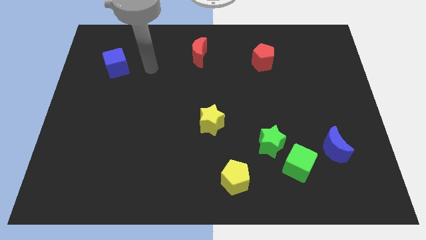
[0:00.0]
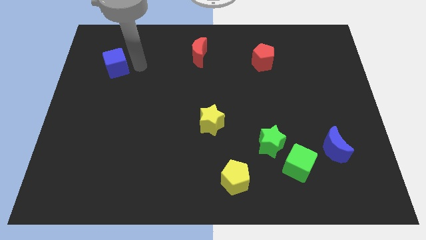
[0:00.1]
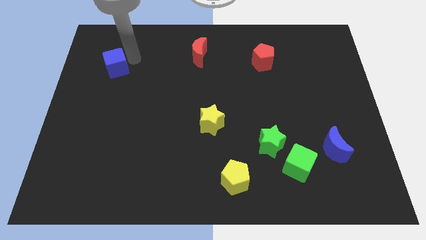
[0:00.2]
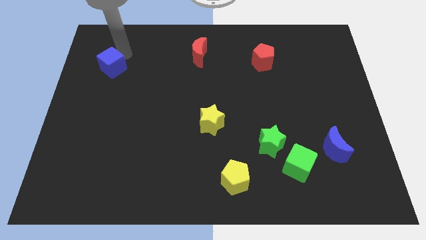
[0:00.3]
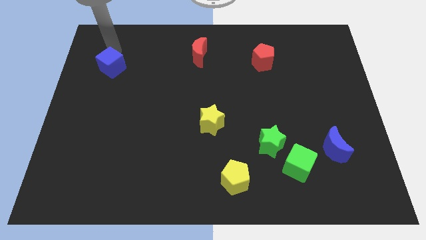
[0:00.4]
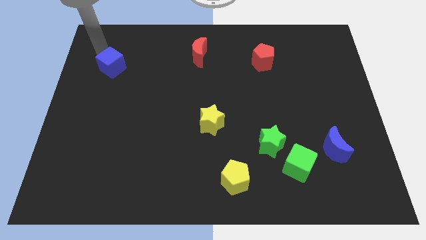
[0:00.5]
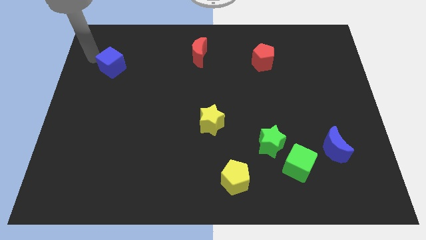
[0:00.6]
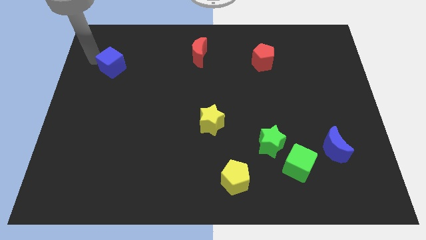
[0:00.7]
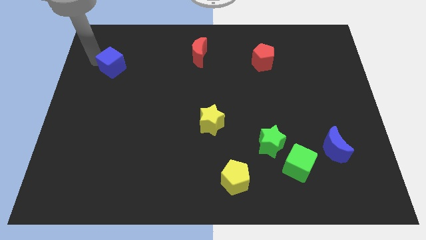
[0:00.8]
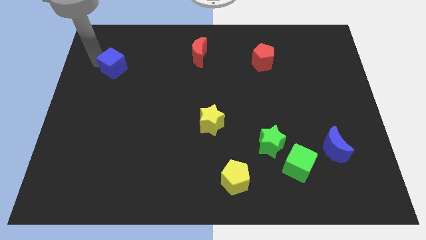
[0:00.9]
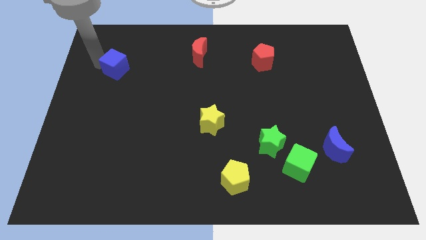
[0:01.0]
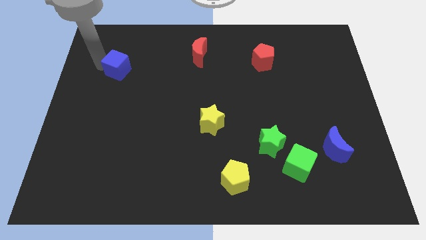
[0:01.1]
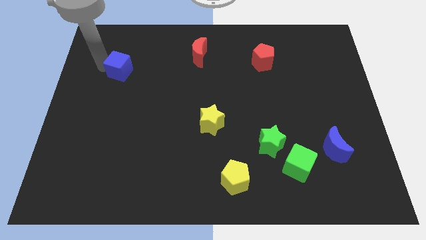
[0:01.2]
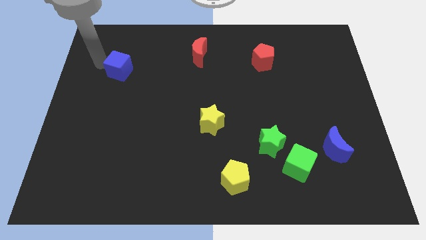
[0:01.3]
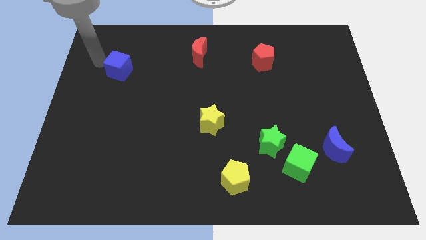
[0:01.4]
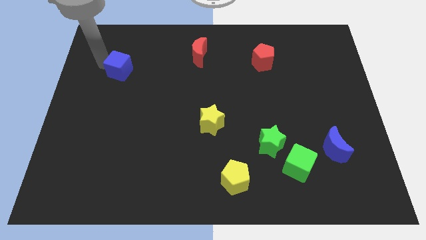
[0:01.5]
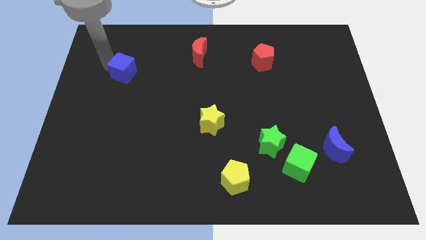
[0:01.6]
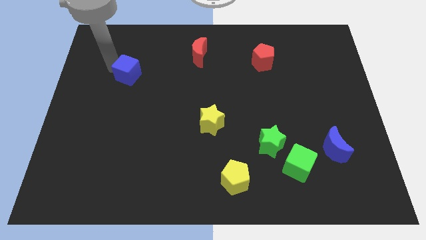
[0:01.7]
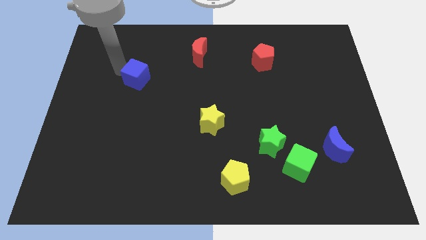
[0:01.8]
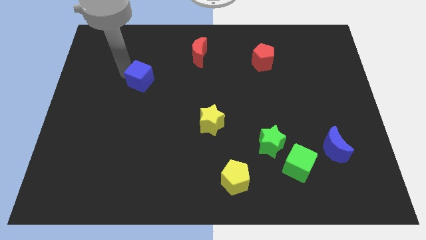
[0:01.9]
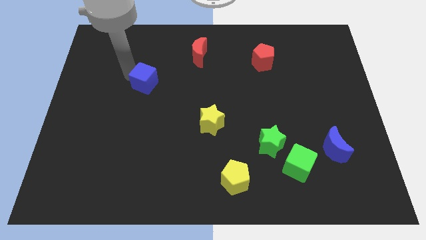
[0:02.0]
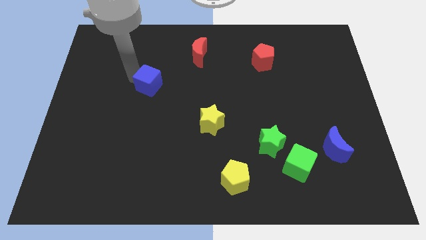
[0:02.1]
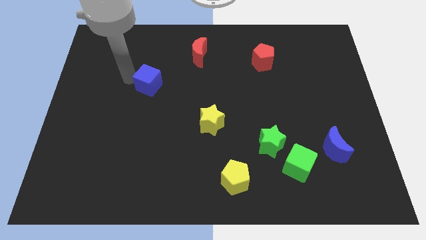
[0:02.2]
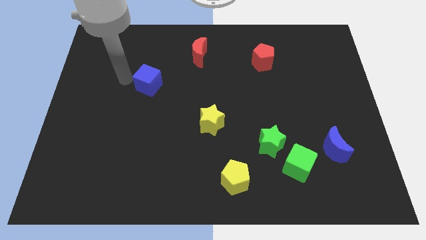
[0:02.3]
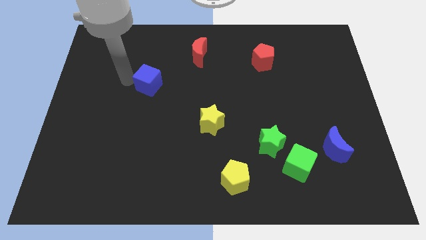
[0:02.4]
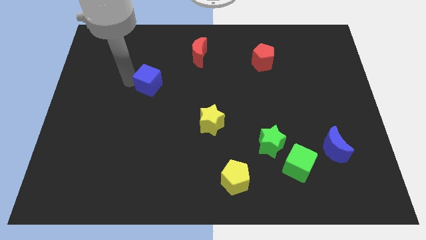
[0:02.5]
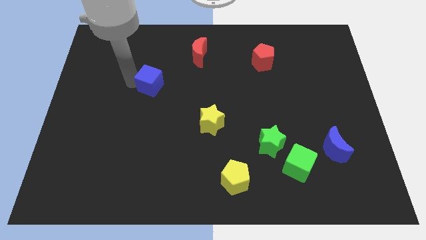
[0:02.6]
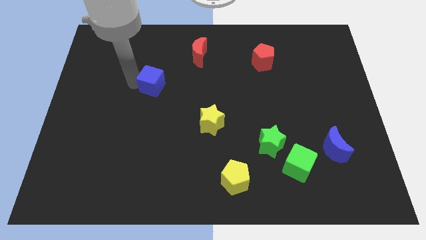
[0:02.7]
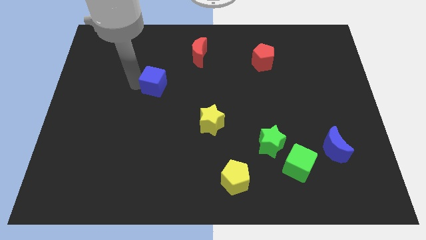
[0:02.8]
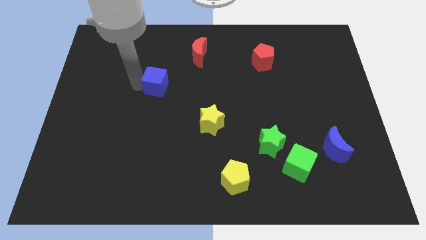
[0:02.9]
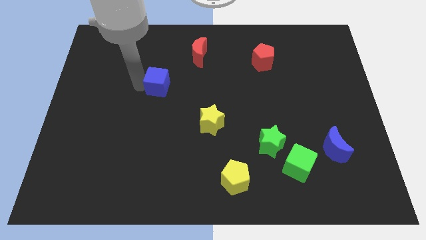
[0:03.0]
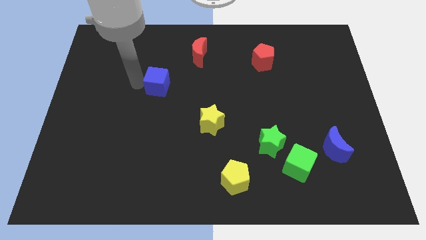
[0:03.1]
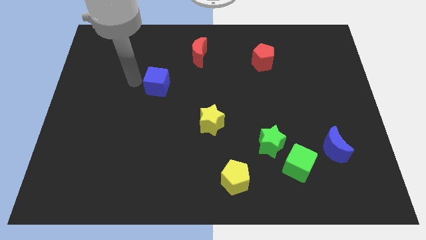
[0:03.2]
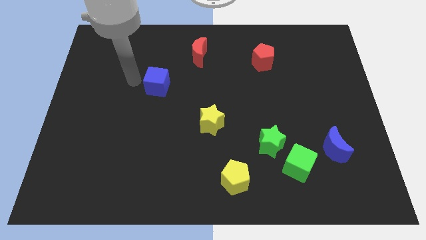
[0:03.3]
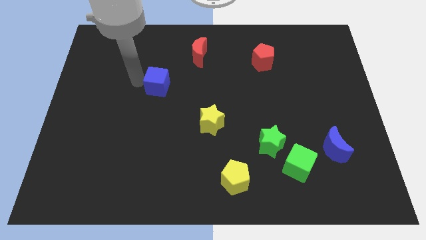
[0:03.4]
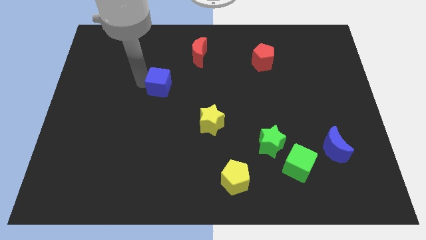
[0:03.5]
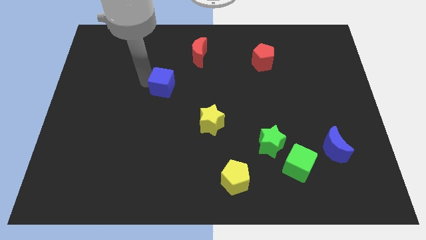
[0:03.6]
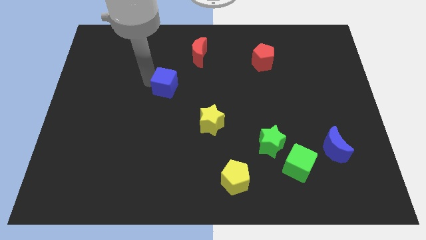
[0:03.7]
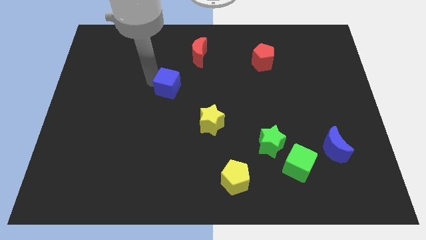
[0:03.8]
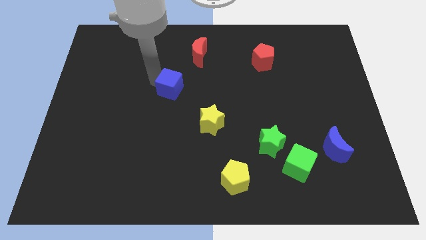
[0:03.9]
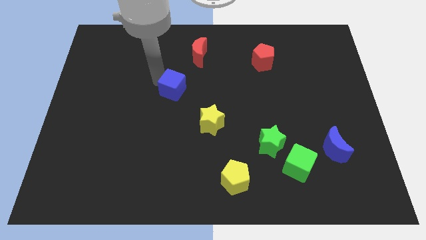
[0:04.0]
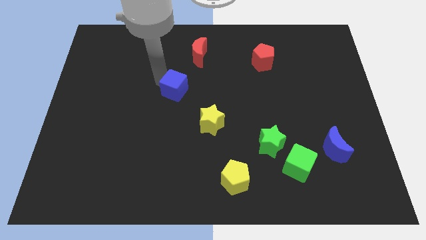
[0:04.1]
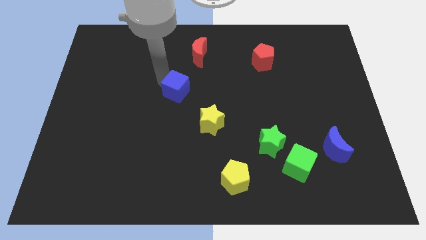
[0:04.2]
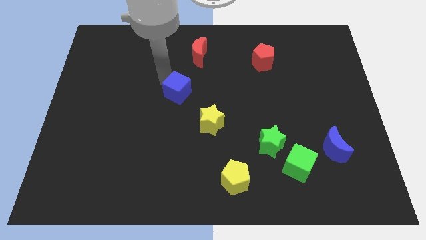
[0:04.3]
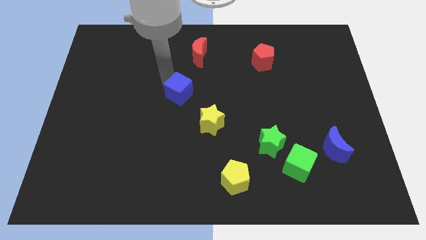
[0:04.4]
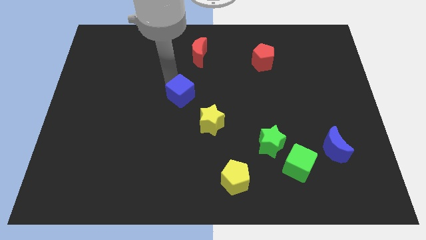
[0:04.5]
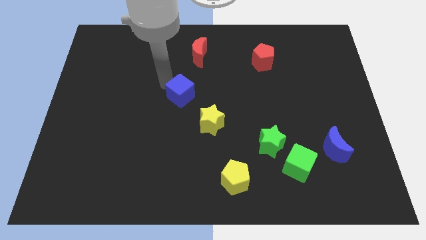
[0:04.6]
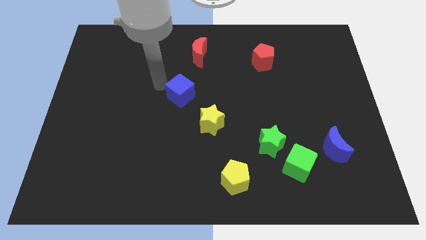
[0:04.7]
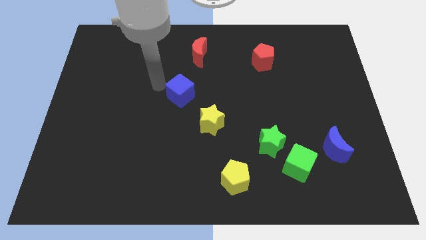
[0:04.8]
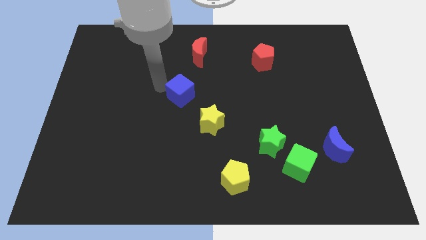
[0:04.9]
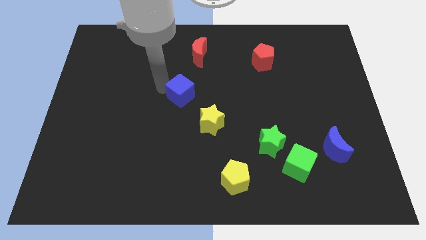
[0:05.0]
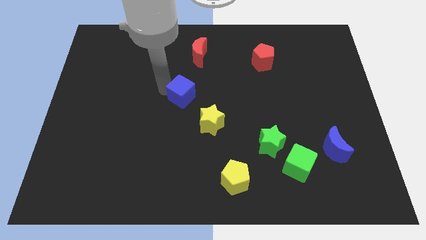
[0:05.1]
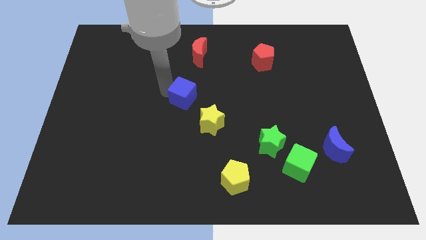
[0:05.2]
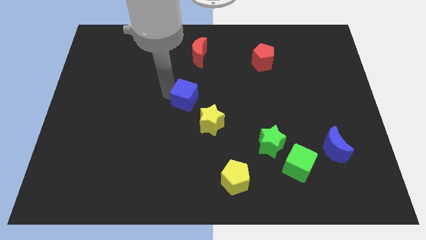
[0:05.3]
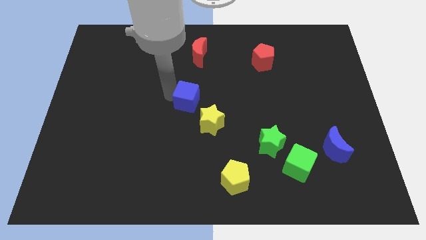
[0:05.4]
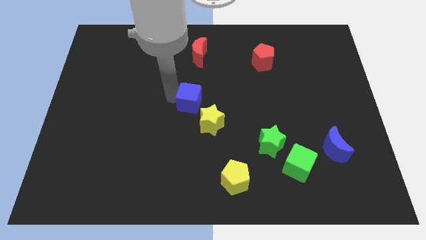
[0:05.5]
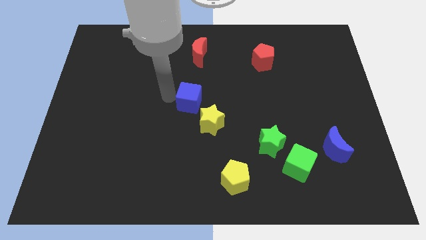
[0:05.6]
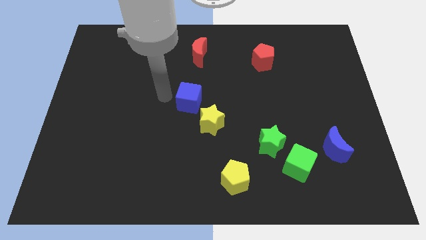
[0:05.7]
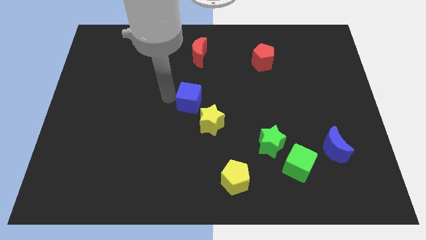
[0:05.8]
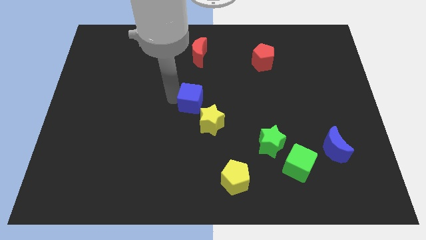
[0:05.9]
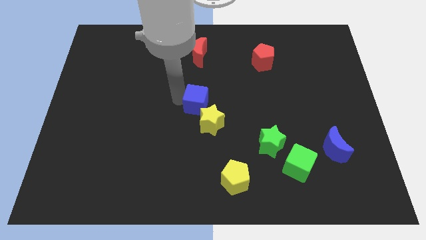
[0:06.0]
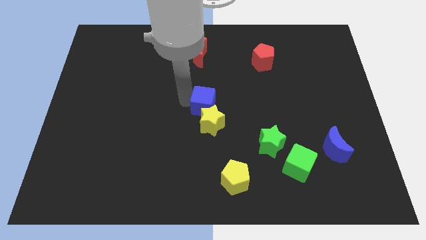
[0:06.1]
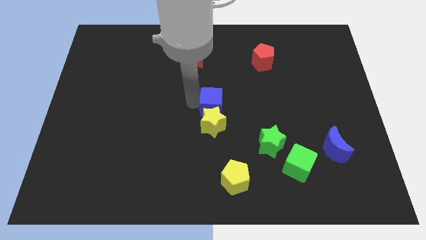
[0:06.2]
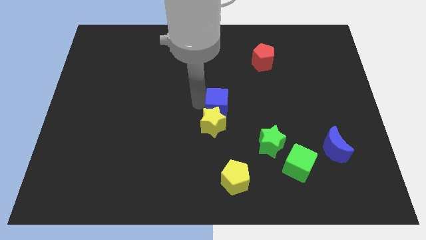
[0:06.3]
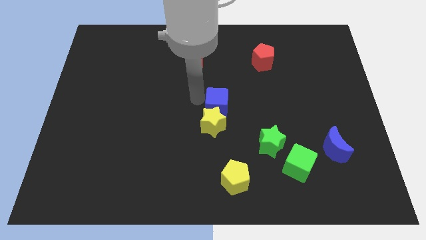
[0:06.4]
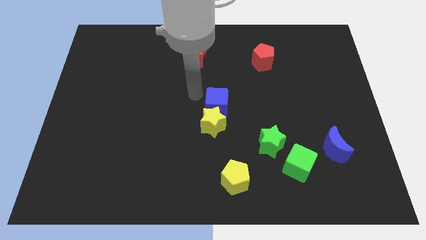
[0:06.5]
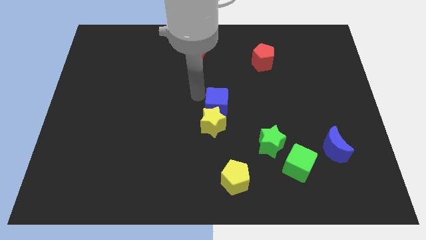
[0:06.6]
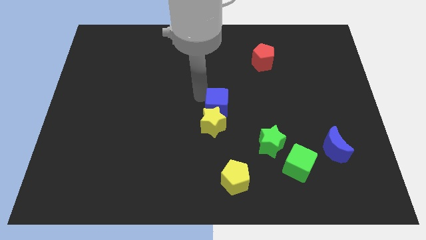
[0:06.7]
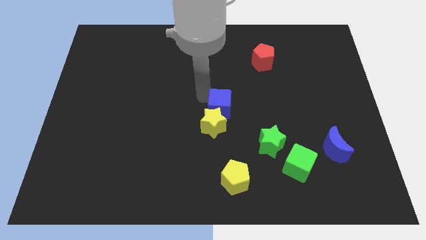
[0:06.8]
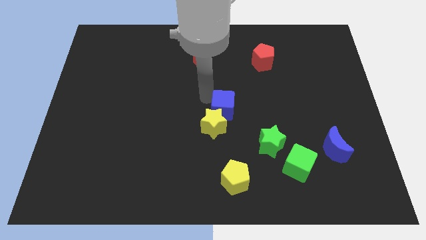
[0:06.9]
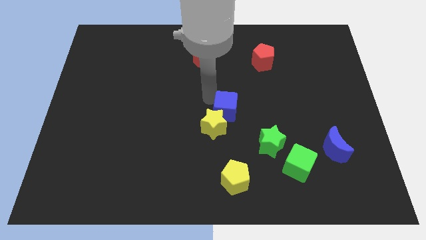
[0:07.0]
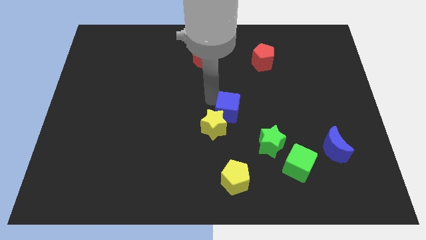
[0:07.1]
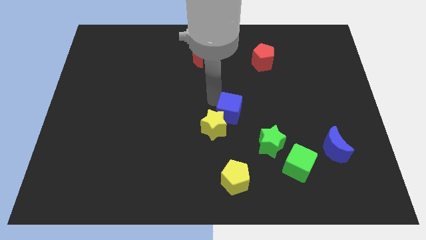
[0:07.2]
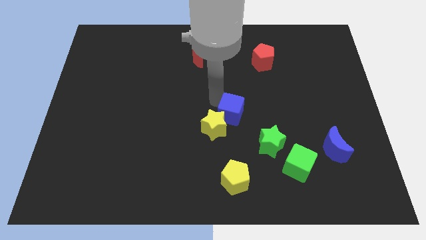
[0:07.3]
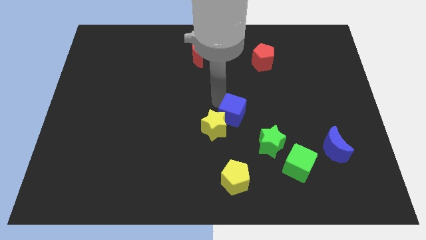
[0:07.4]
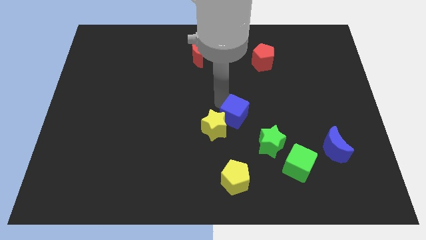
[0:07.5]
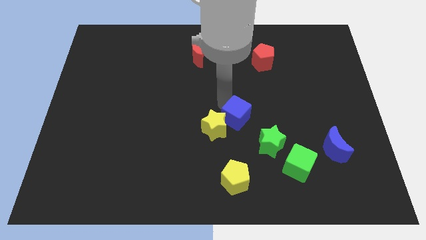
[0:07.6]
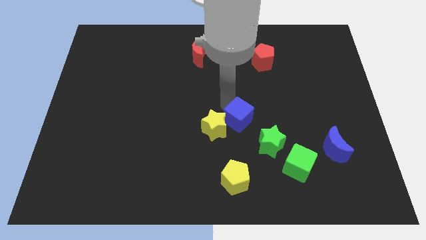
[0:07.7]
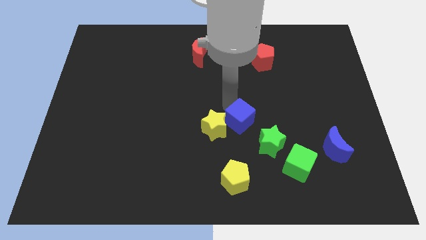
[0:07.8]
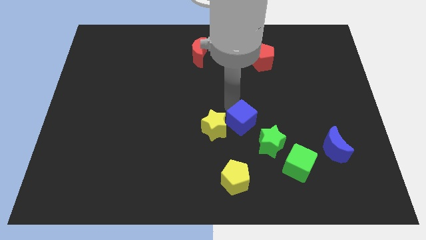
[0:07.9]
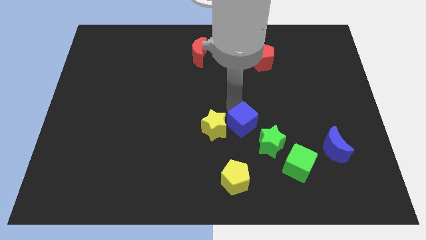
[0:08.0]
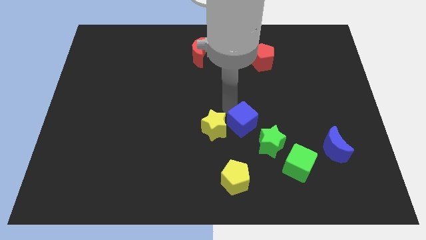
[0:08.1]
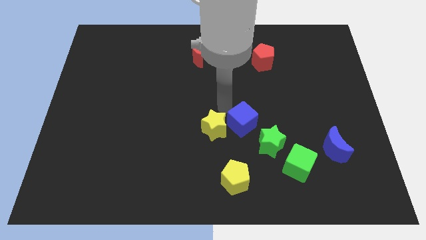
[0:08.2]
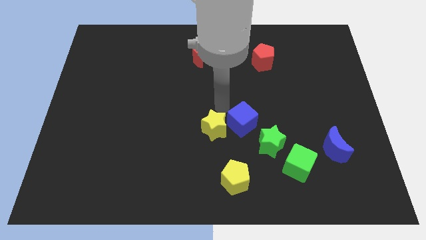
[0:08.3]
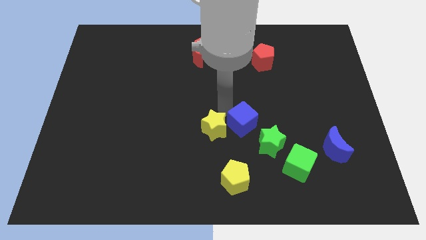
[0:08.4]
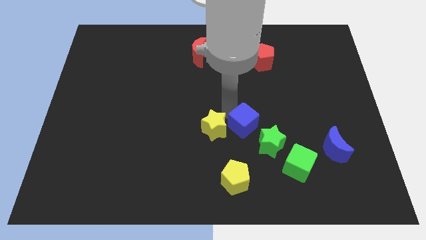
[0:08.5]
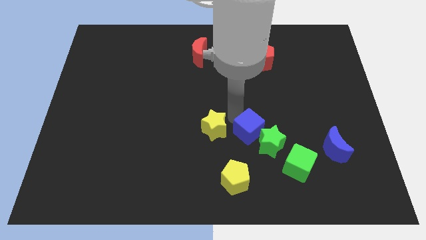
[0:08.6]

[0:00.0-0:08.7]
push the blue cube next to the green star
